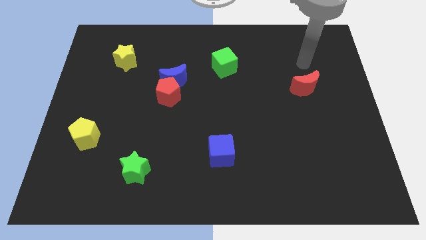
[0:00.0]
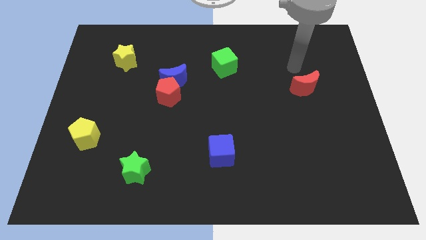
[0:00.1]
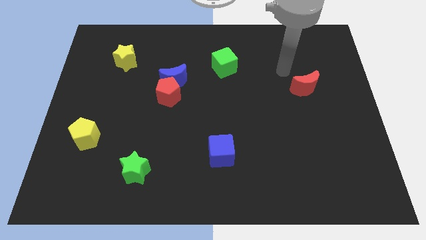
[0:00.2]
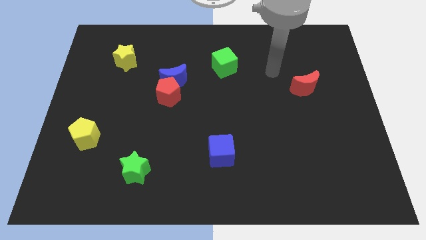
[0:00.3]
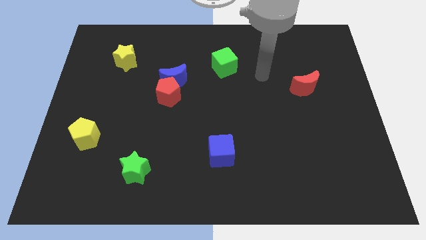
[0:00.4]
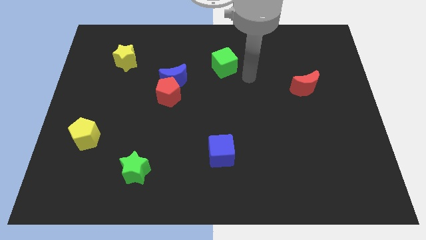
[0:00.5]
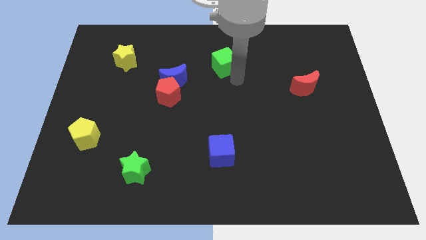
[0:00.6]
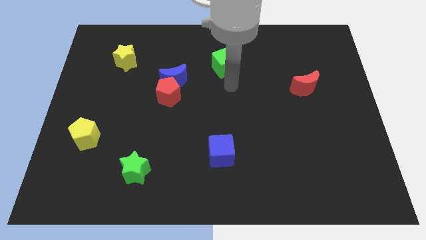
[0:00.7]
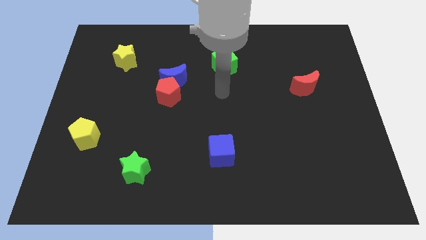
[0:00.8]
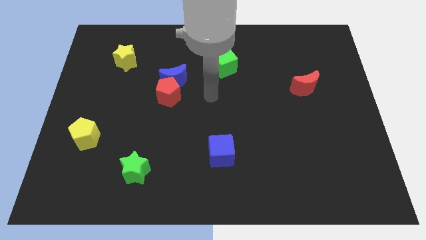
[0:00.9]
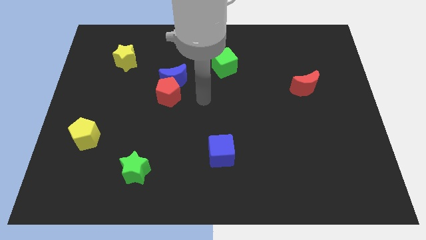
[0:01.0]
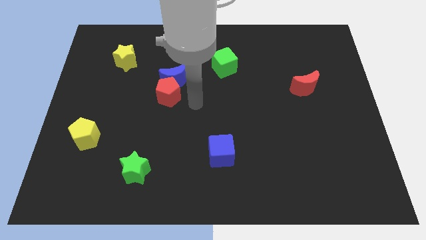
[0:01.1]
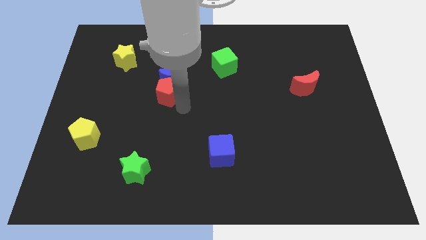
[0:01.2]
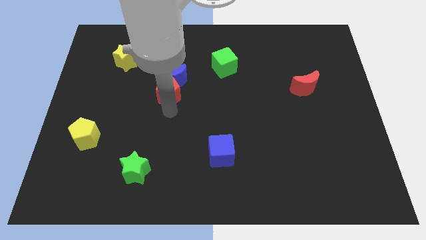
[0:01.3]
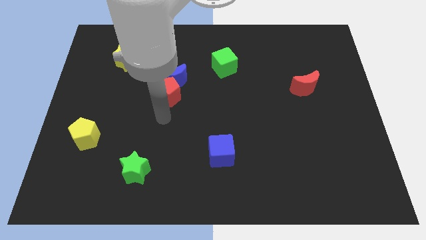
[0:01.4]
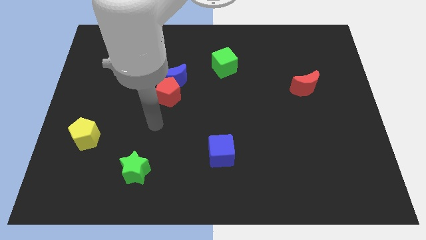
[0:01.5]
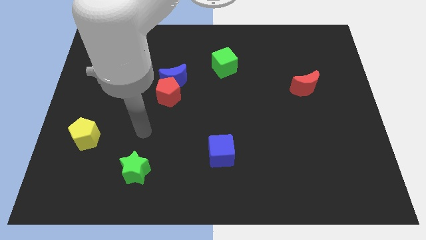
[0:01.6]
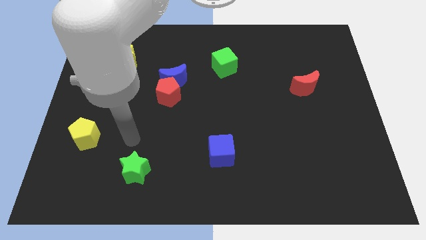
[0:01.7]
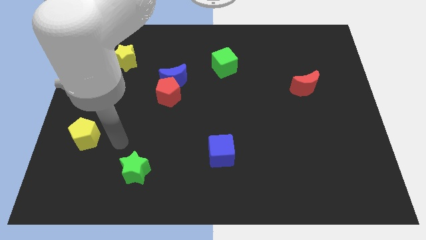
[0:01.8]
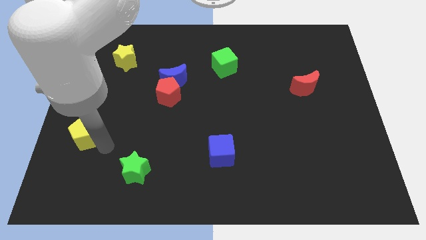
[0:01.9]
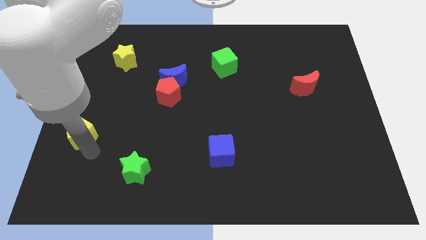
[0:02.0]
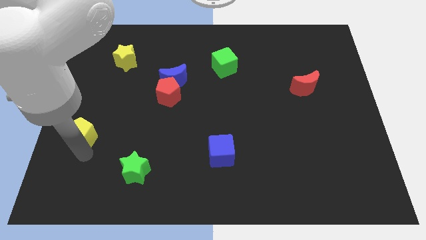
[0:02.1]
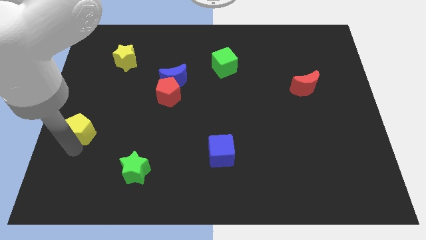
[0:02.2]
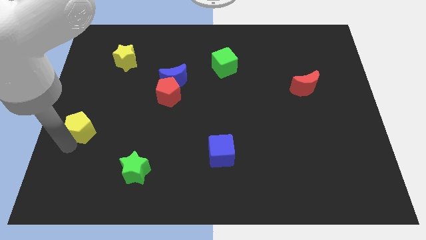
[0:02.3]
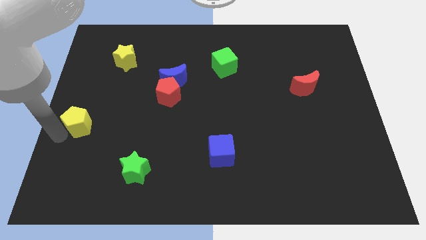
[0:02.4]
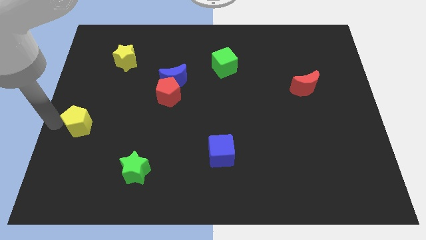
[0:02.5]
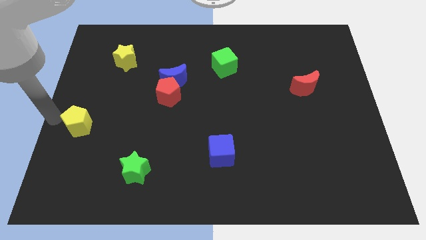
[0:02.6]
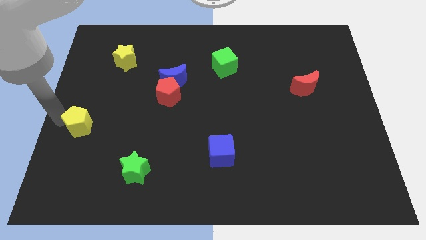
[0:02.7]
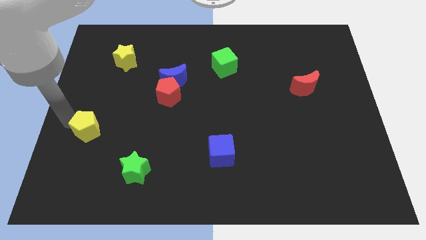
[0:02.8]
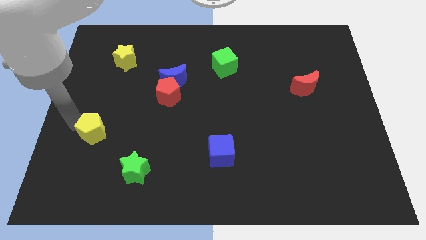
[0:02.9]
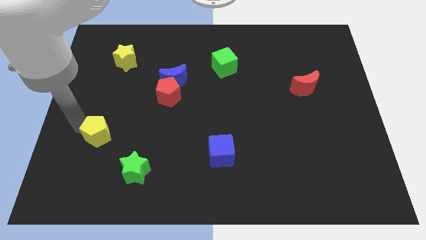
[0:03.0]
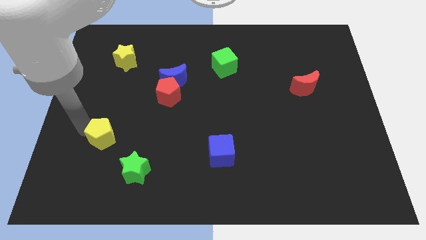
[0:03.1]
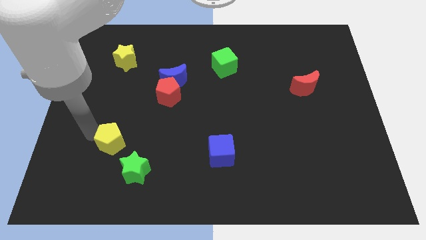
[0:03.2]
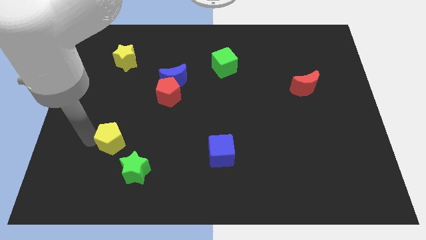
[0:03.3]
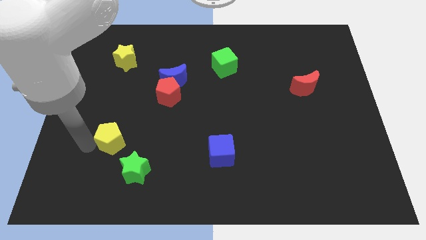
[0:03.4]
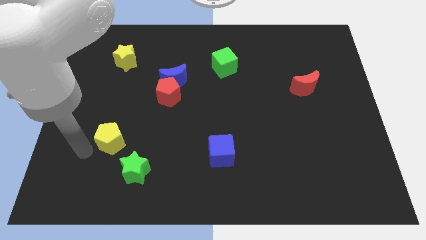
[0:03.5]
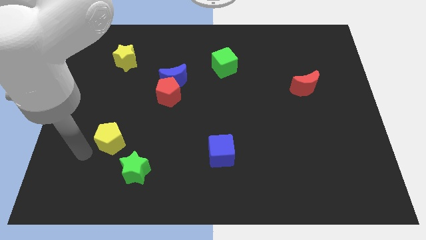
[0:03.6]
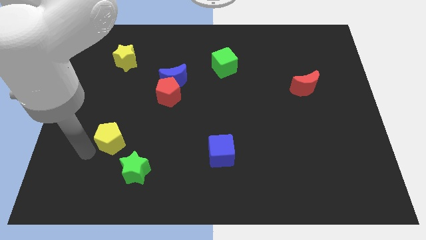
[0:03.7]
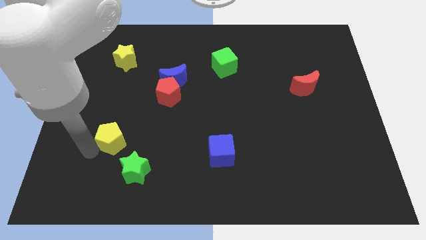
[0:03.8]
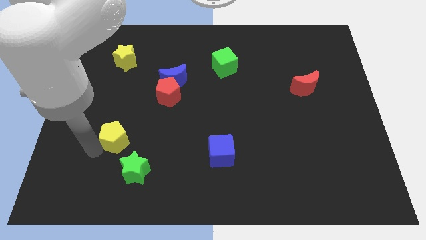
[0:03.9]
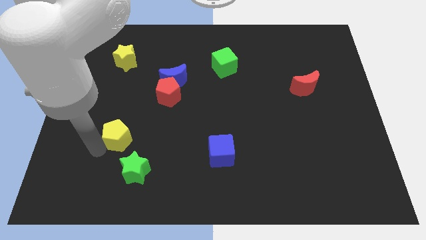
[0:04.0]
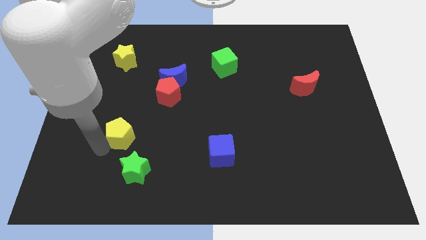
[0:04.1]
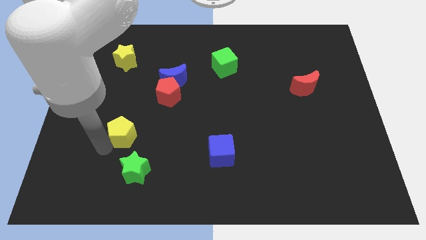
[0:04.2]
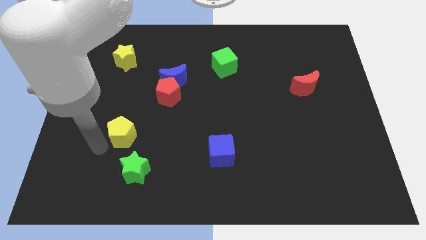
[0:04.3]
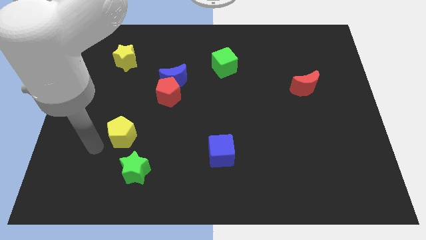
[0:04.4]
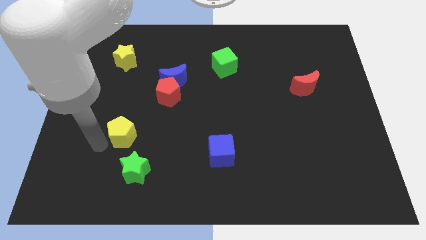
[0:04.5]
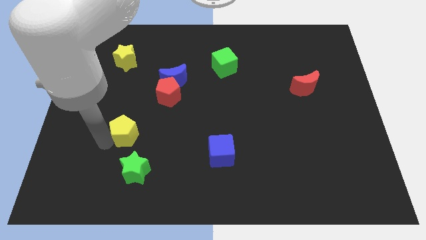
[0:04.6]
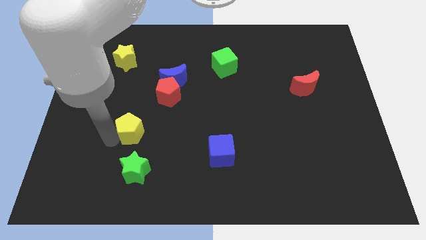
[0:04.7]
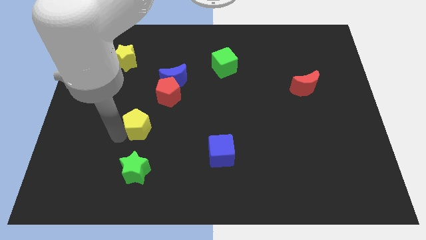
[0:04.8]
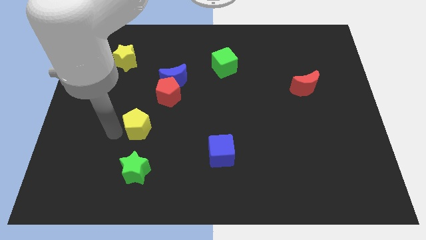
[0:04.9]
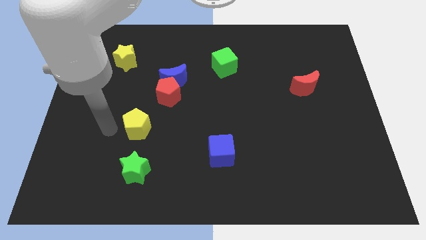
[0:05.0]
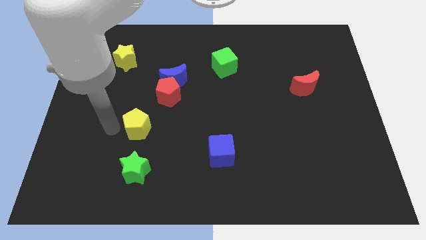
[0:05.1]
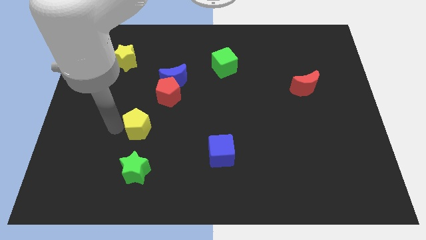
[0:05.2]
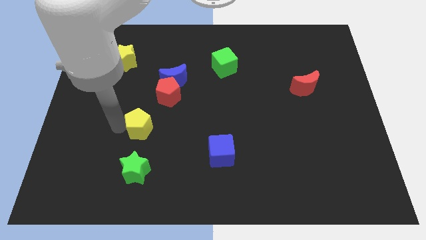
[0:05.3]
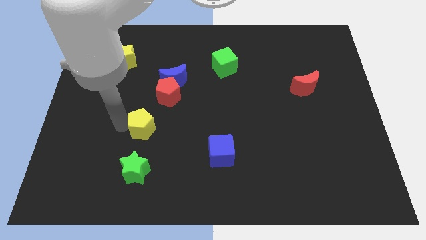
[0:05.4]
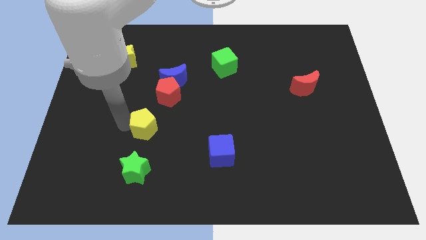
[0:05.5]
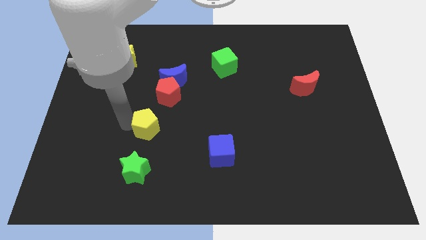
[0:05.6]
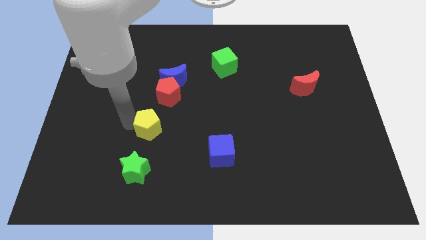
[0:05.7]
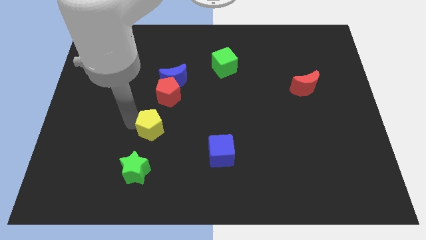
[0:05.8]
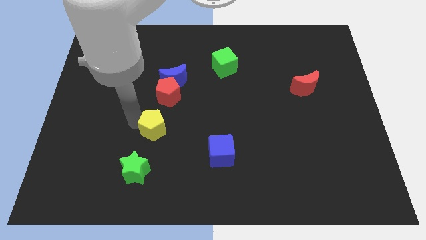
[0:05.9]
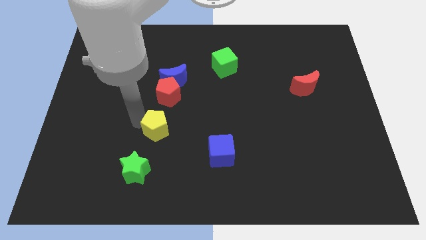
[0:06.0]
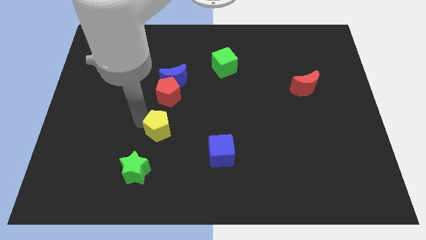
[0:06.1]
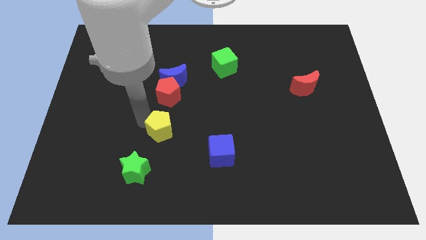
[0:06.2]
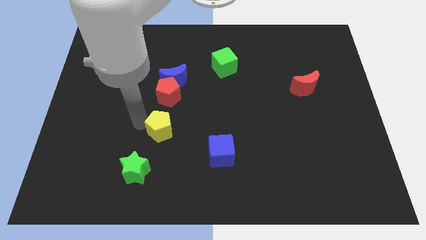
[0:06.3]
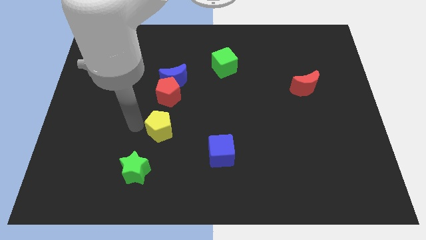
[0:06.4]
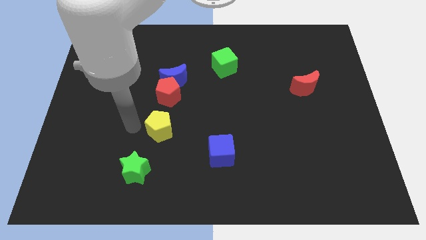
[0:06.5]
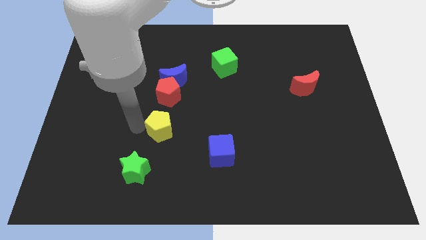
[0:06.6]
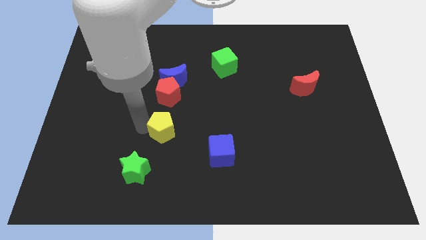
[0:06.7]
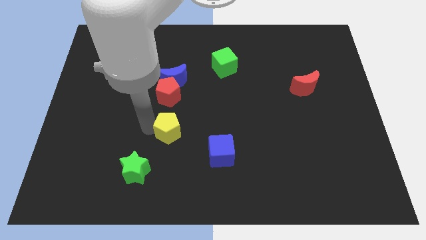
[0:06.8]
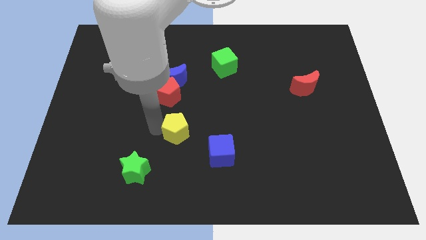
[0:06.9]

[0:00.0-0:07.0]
push the yellow pentagon to the top left of the blue cube
